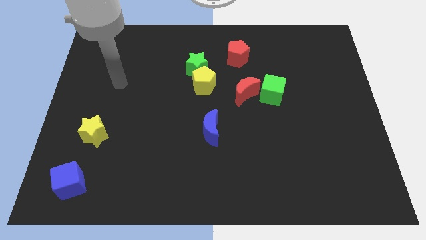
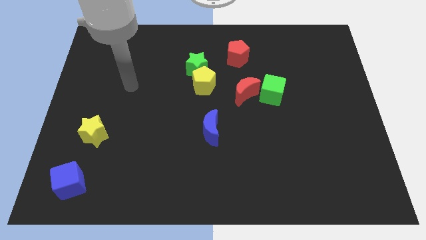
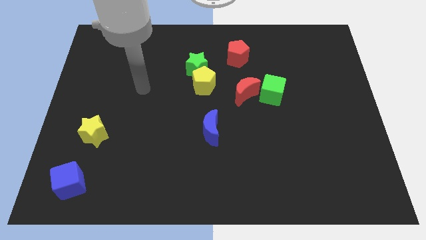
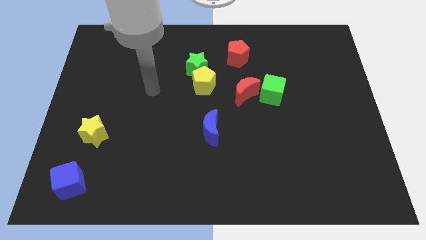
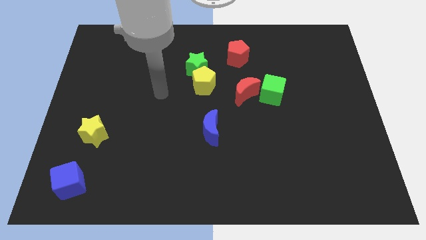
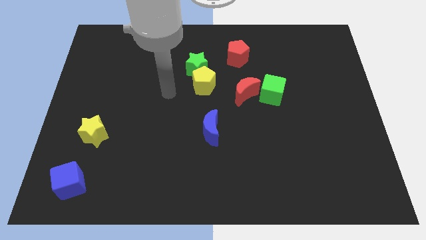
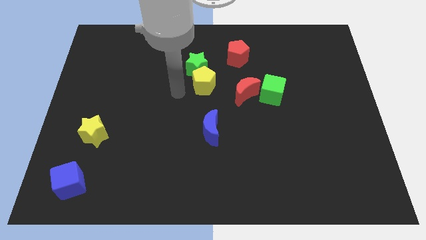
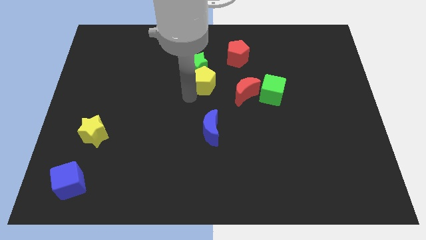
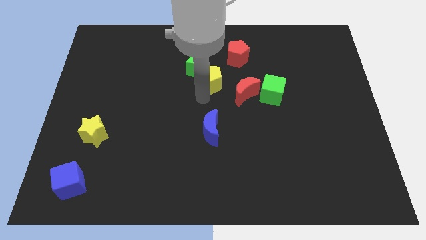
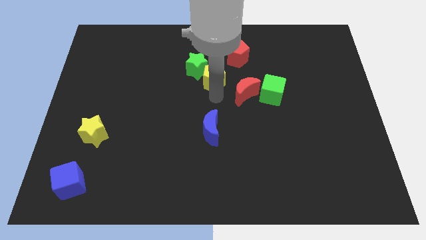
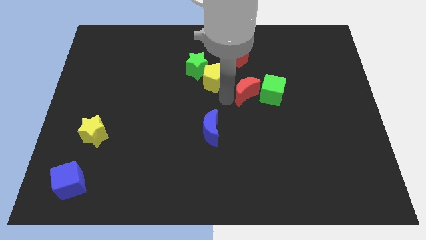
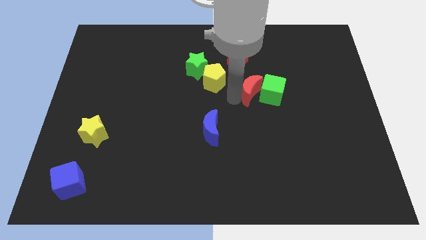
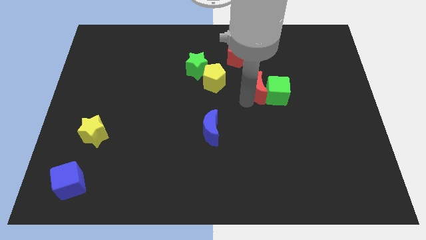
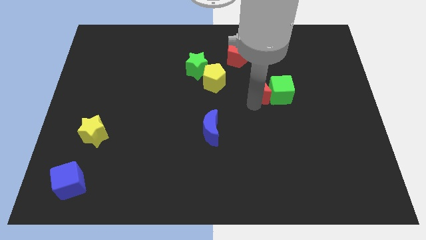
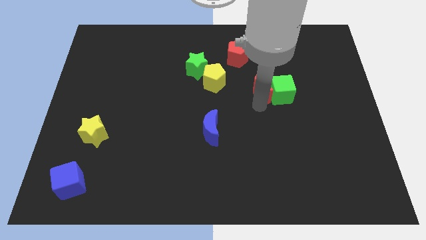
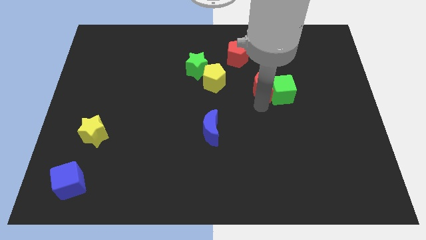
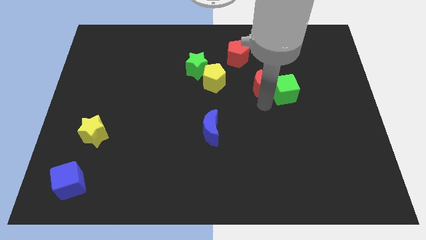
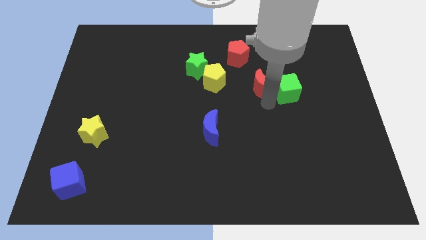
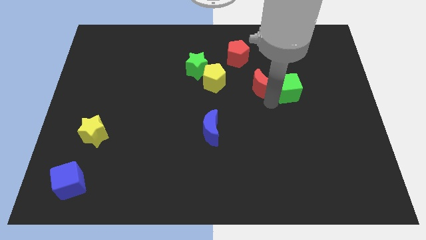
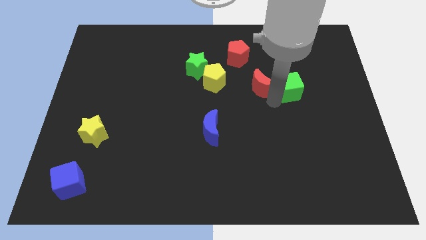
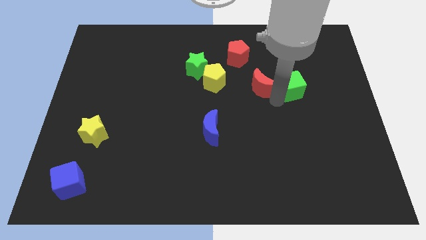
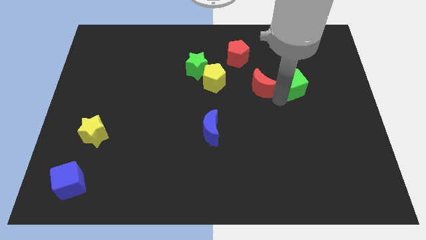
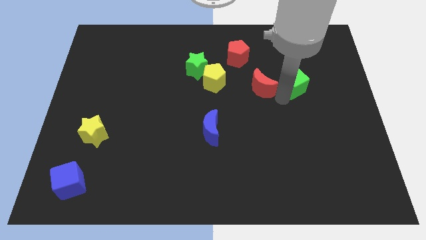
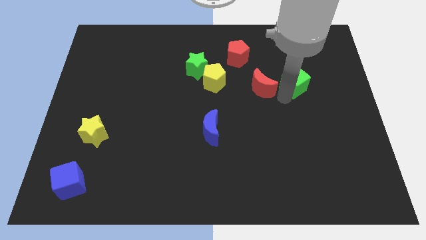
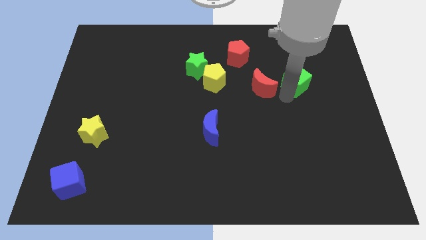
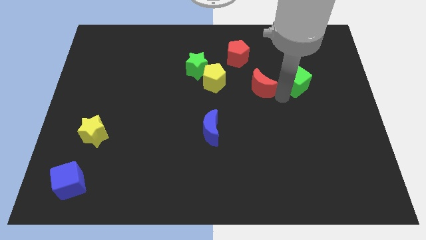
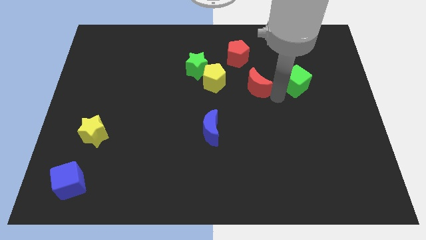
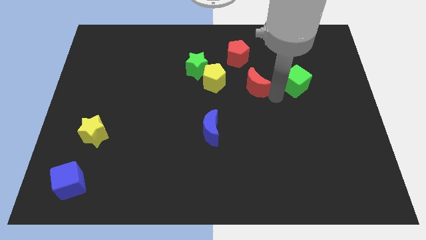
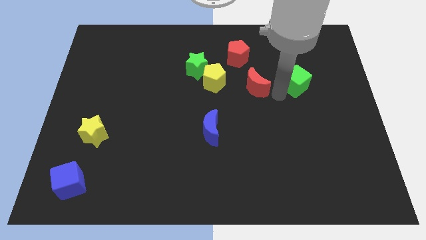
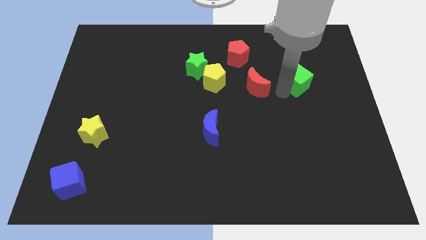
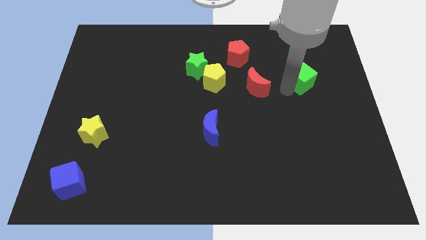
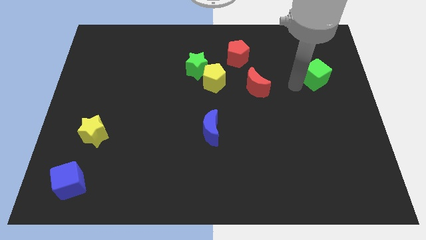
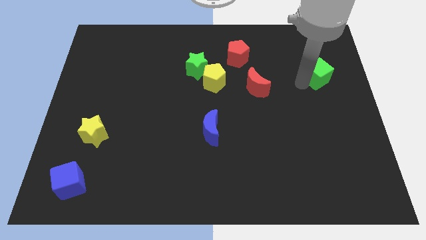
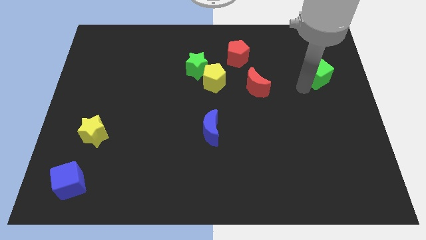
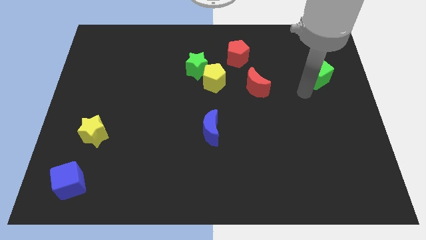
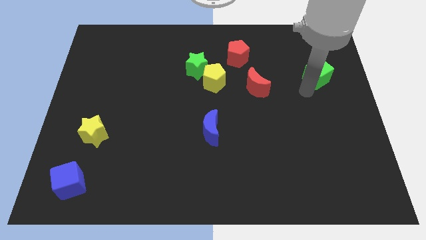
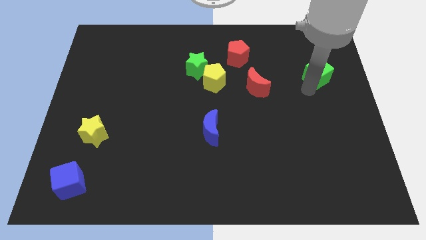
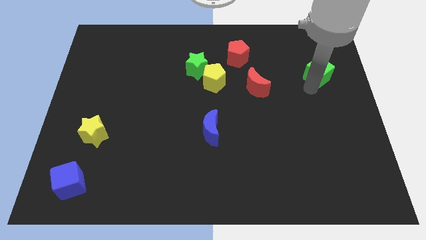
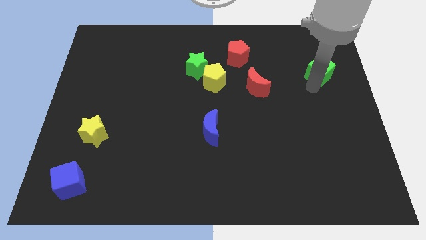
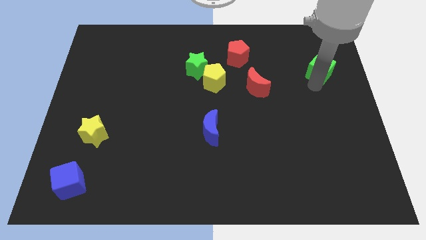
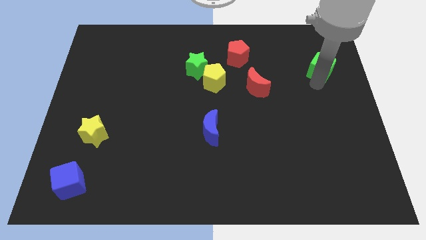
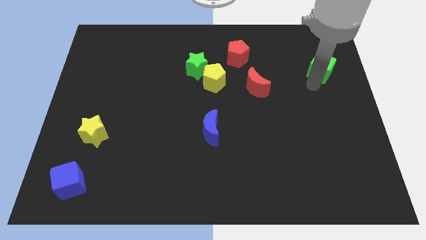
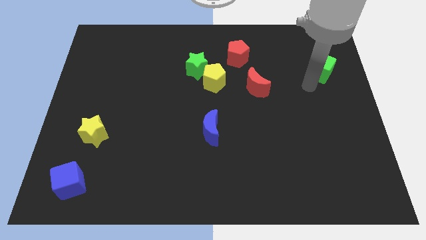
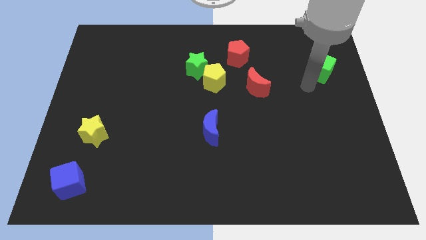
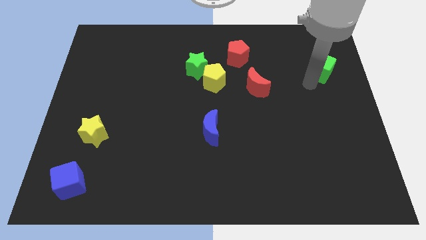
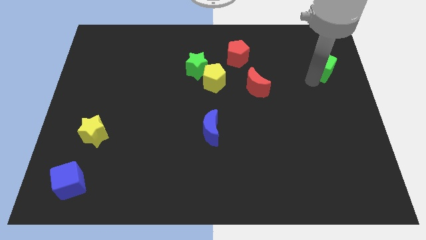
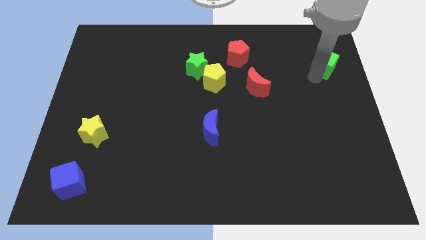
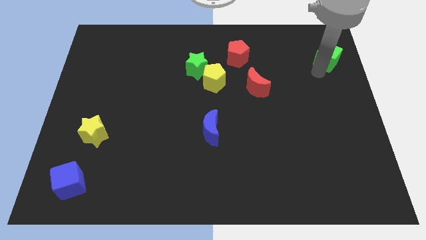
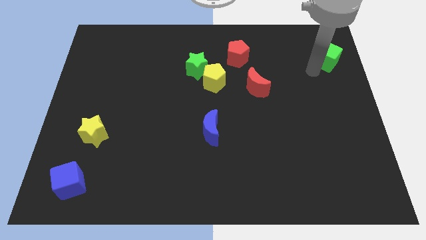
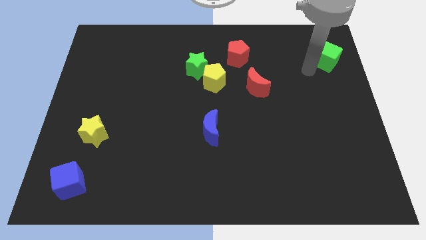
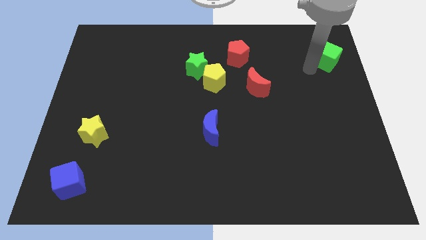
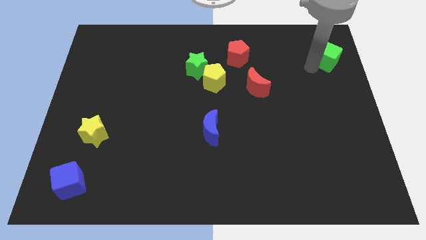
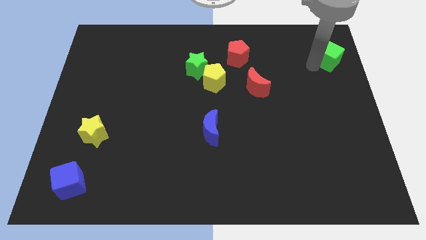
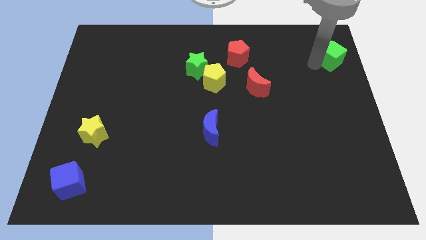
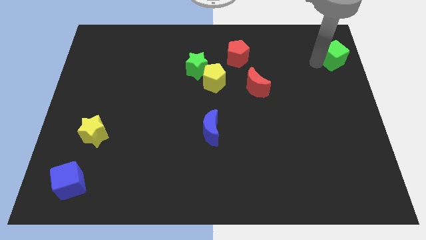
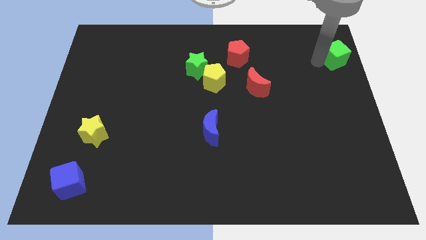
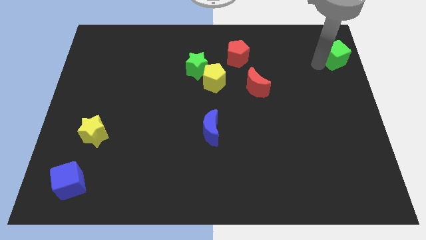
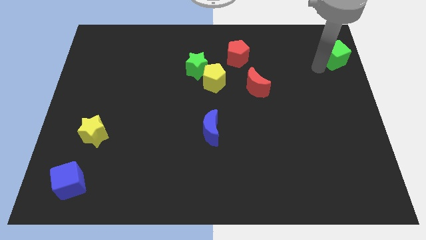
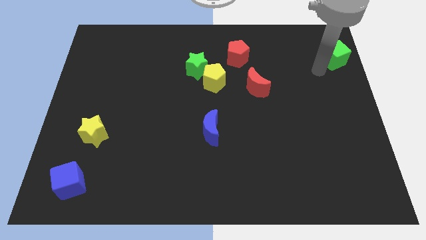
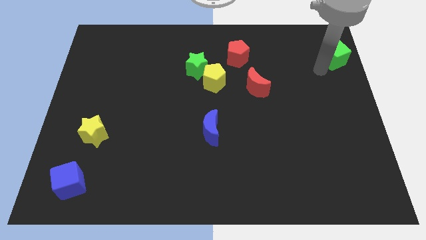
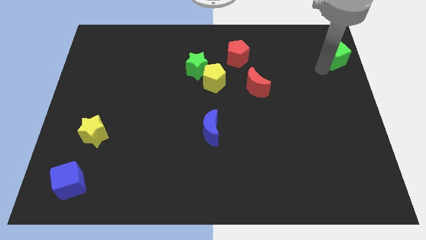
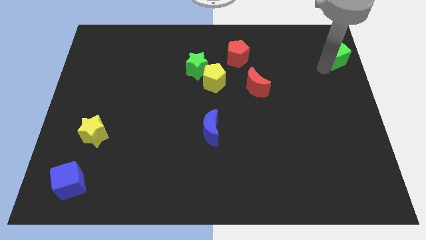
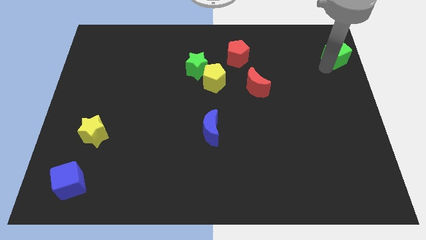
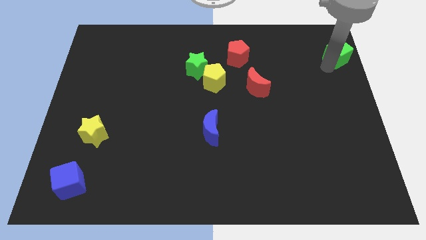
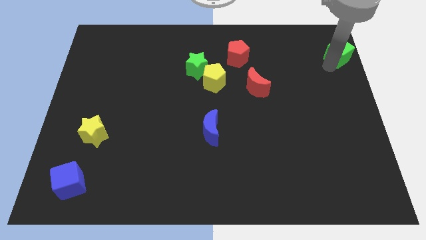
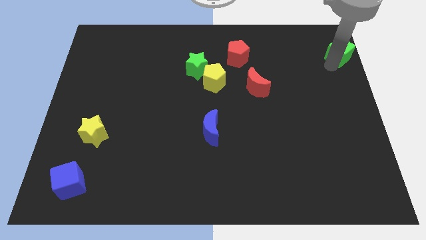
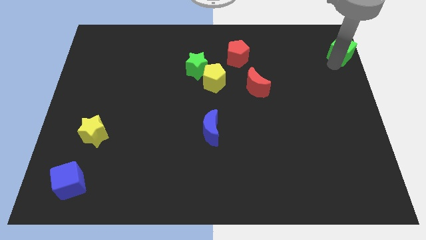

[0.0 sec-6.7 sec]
slide the green cube to the top right of the board
